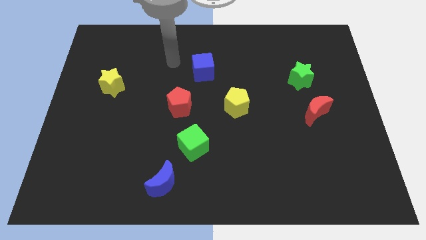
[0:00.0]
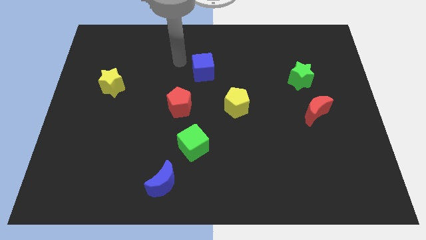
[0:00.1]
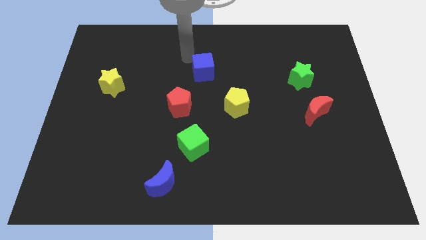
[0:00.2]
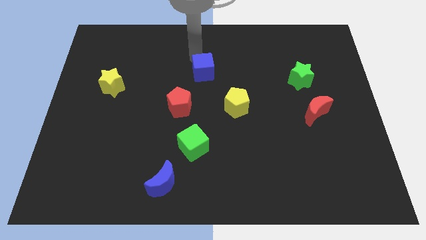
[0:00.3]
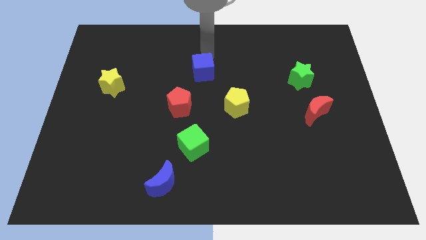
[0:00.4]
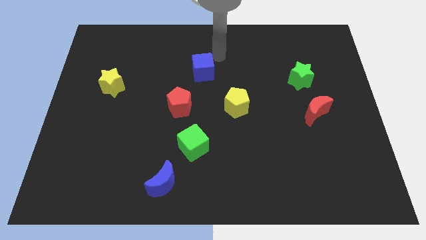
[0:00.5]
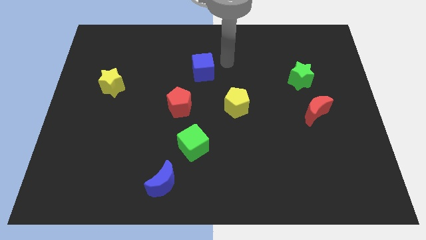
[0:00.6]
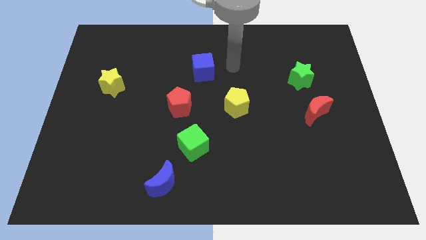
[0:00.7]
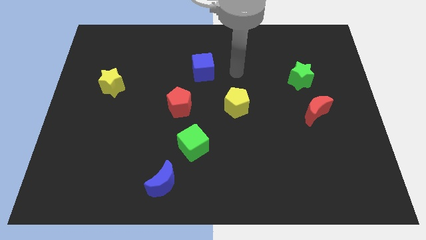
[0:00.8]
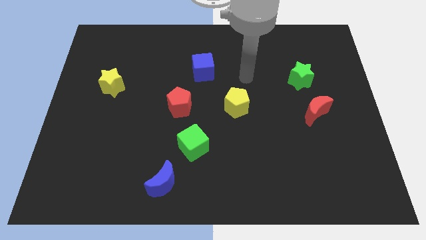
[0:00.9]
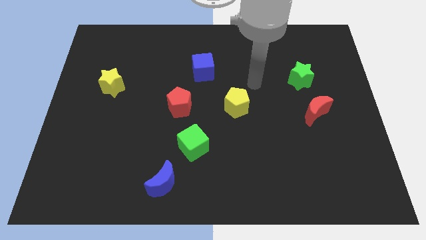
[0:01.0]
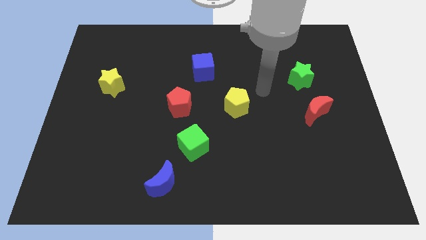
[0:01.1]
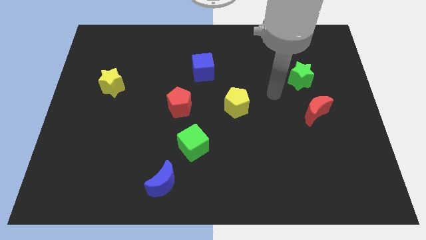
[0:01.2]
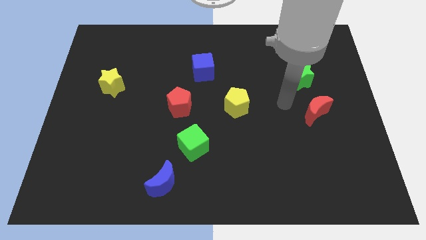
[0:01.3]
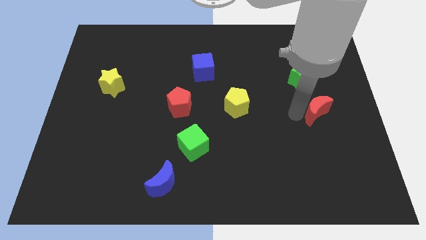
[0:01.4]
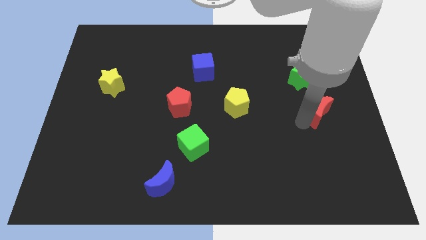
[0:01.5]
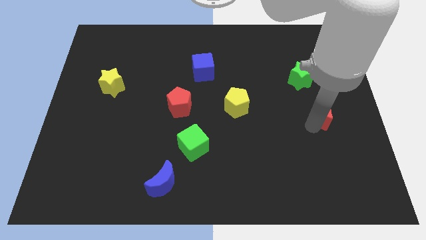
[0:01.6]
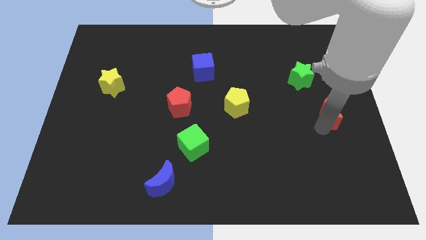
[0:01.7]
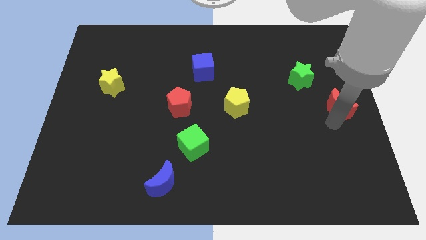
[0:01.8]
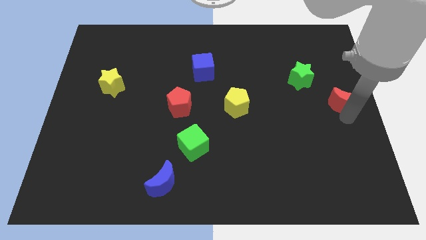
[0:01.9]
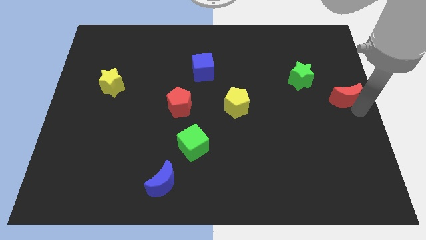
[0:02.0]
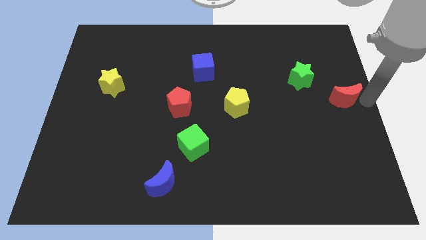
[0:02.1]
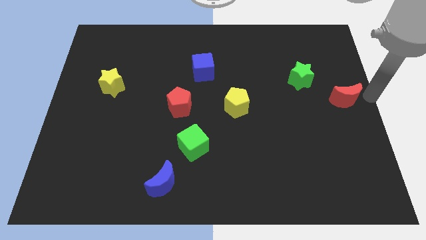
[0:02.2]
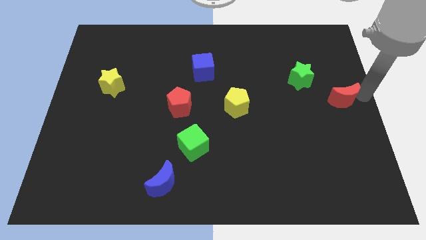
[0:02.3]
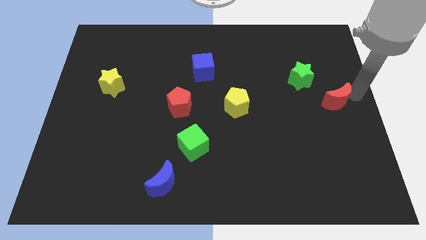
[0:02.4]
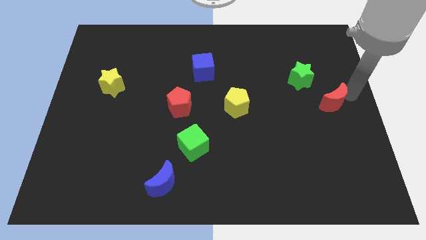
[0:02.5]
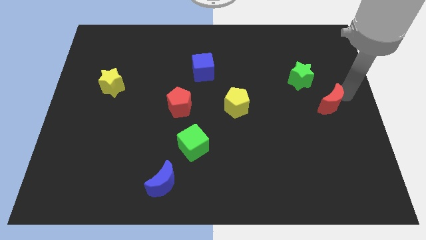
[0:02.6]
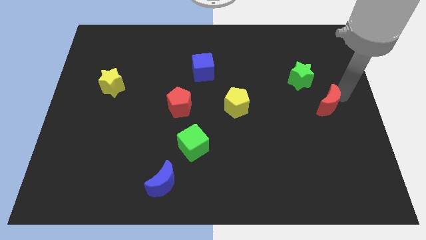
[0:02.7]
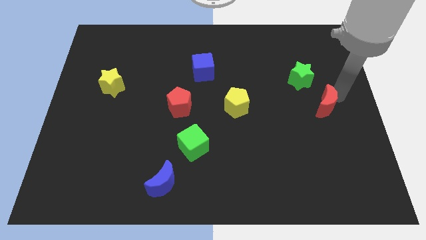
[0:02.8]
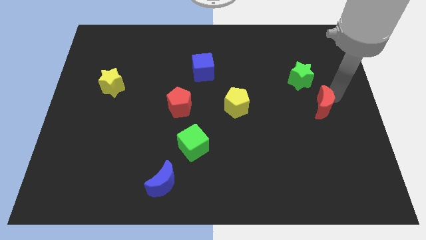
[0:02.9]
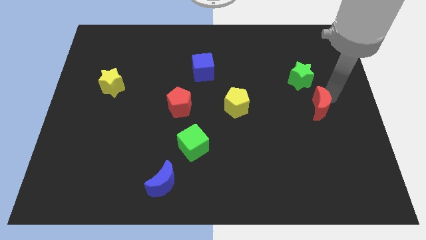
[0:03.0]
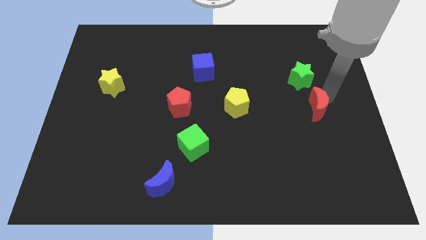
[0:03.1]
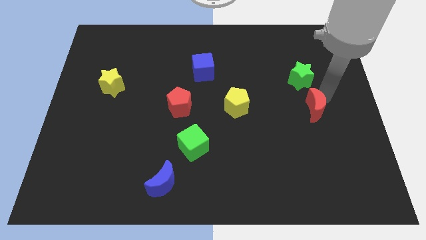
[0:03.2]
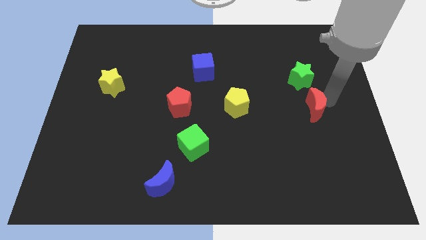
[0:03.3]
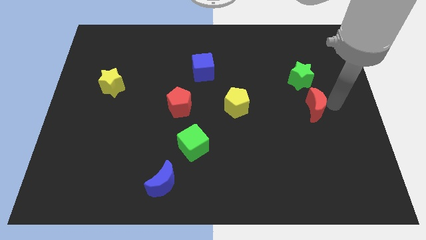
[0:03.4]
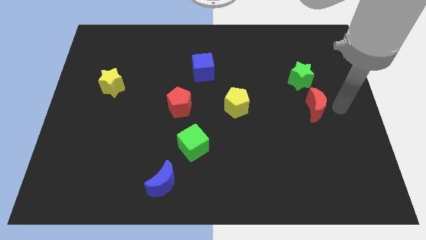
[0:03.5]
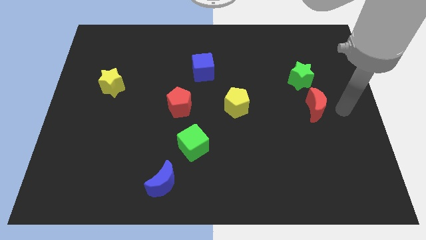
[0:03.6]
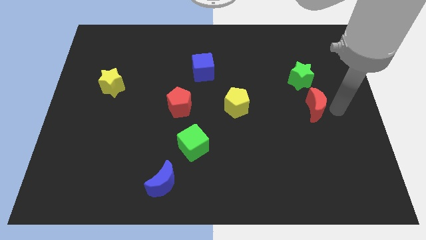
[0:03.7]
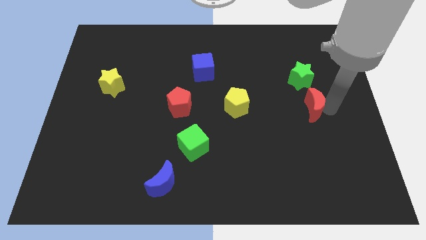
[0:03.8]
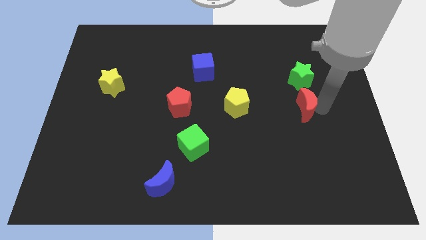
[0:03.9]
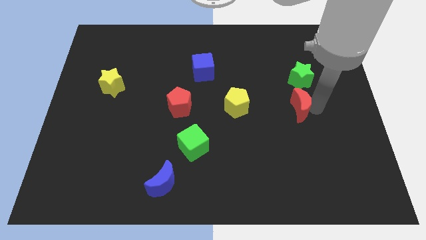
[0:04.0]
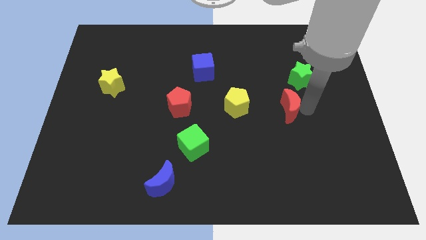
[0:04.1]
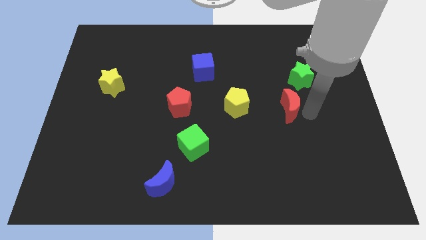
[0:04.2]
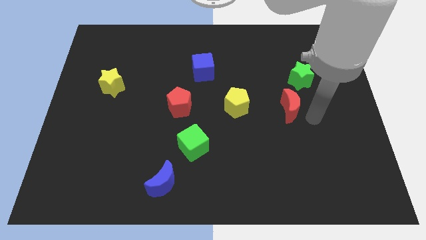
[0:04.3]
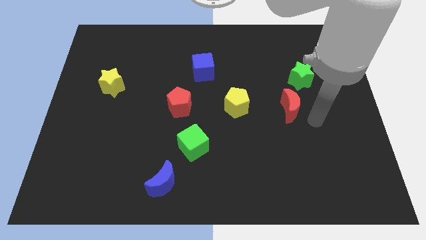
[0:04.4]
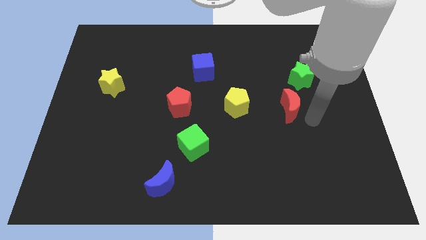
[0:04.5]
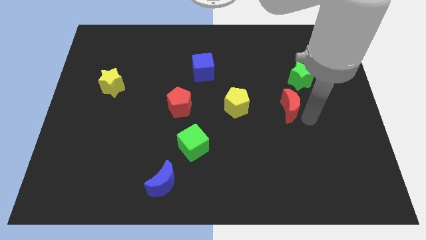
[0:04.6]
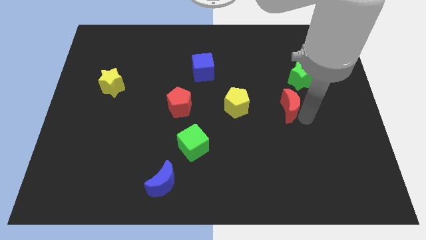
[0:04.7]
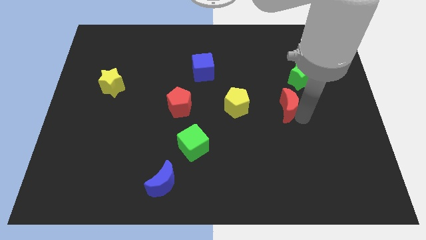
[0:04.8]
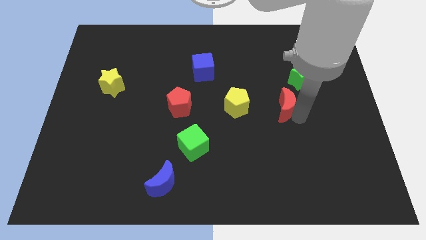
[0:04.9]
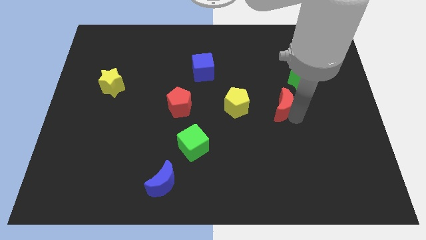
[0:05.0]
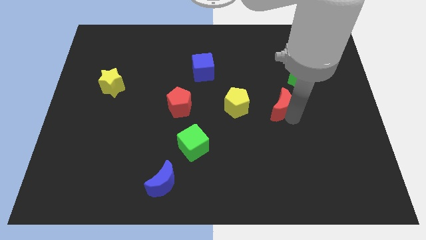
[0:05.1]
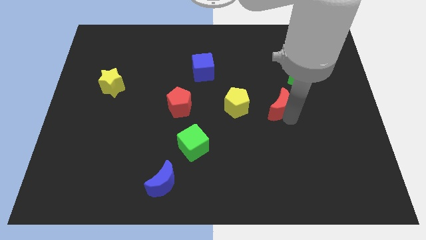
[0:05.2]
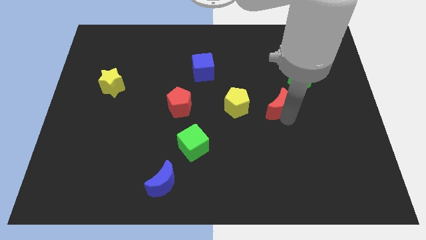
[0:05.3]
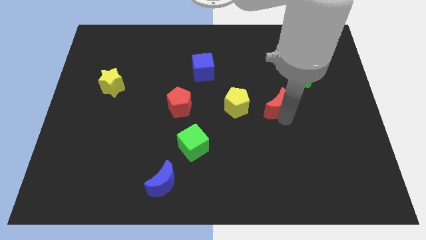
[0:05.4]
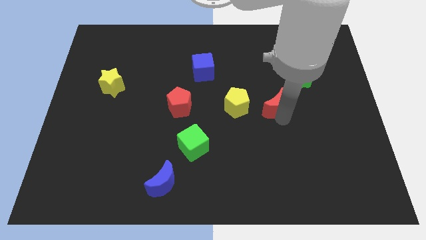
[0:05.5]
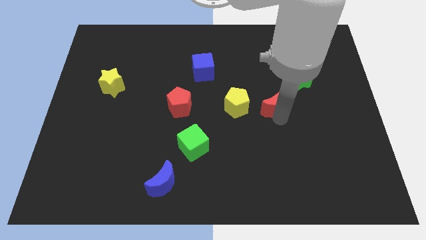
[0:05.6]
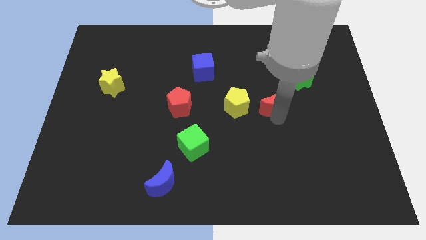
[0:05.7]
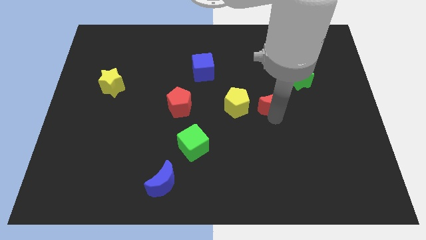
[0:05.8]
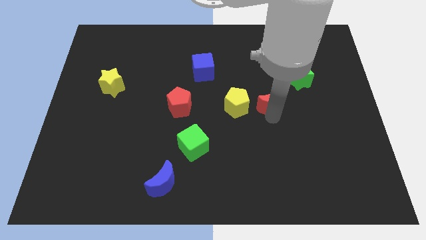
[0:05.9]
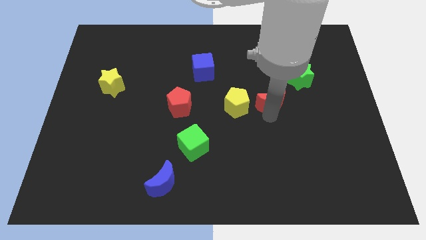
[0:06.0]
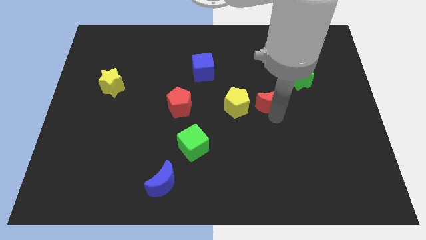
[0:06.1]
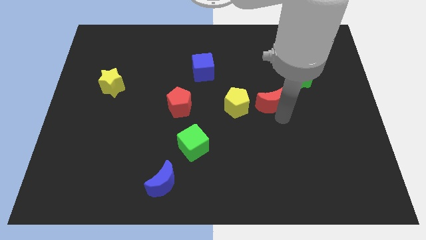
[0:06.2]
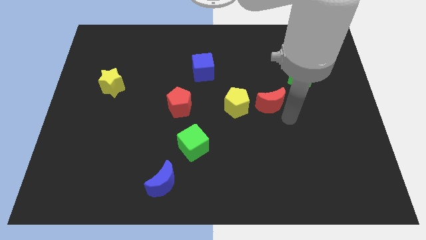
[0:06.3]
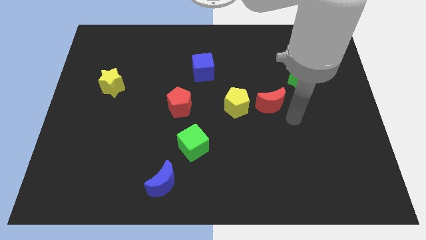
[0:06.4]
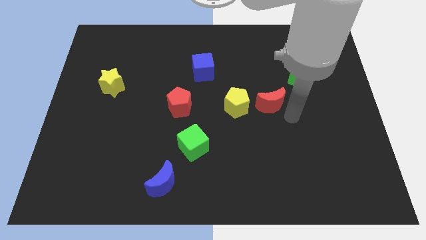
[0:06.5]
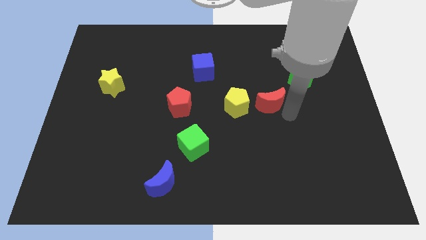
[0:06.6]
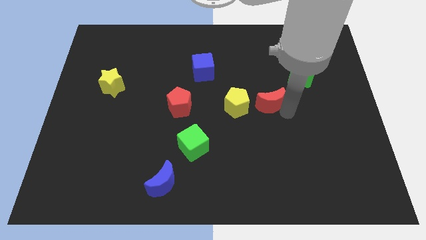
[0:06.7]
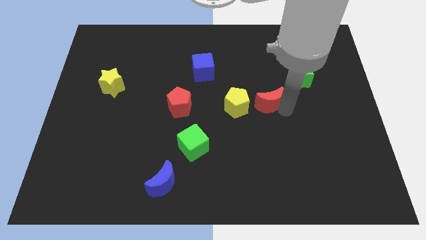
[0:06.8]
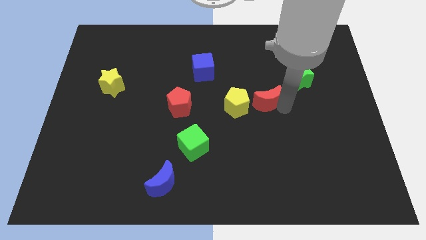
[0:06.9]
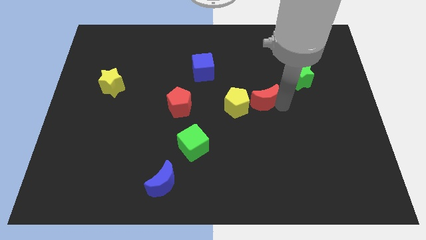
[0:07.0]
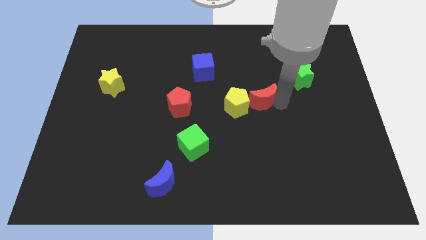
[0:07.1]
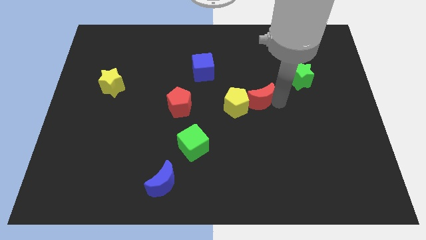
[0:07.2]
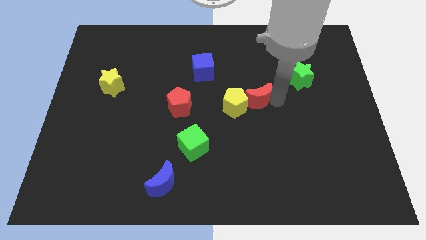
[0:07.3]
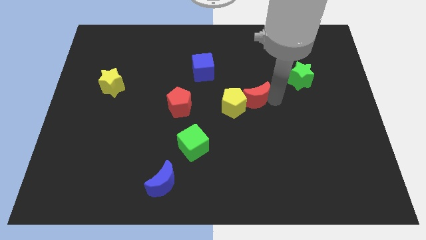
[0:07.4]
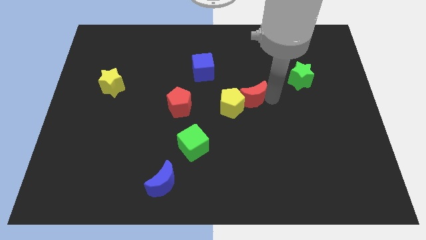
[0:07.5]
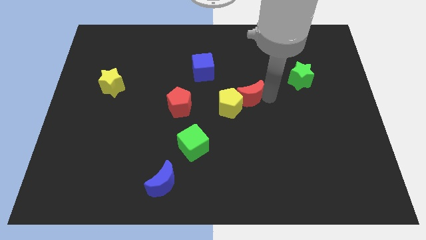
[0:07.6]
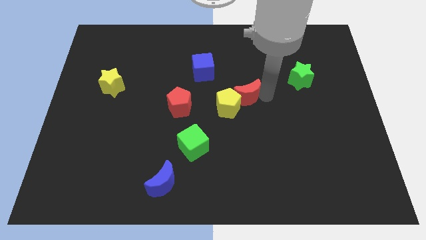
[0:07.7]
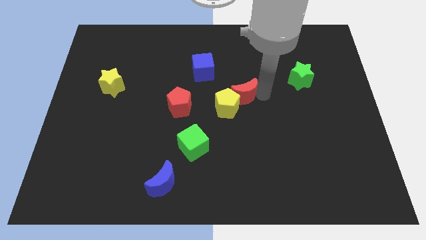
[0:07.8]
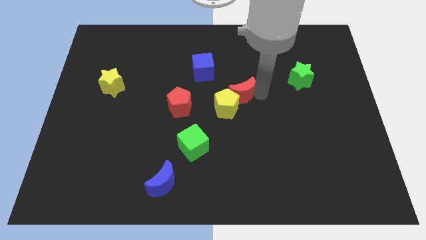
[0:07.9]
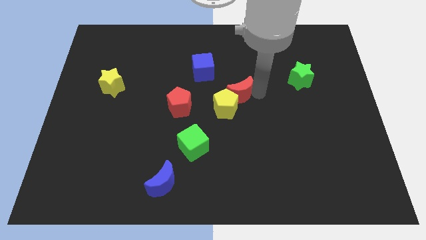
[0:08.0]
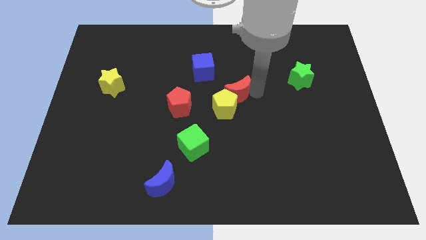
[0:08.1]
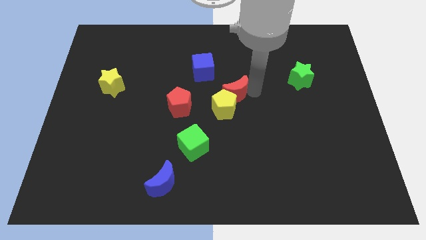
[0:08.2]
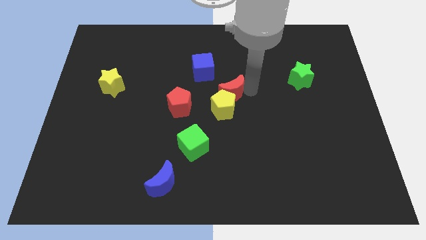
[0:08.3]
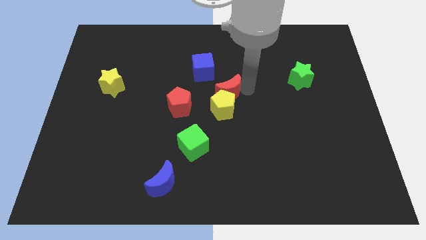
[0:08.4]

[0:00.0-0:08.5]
push the red moon to the top left side of the yellow pentagon
